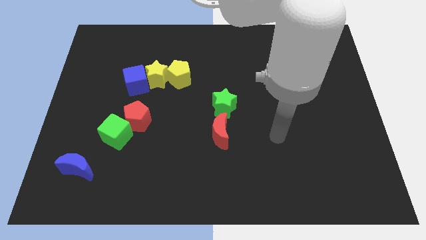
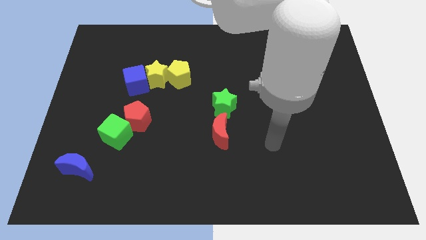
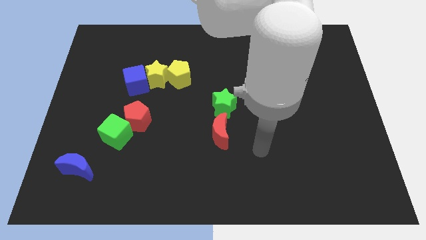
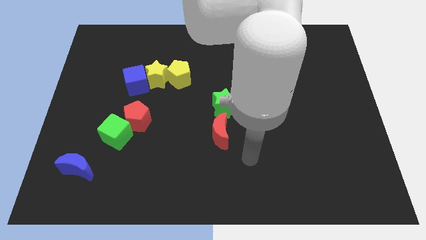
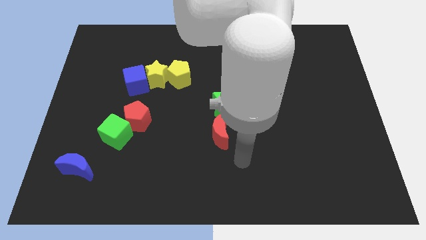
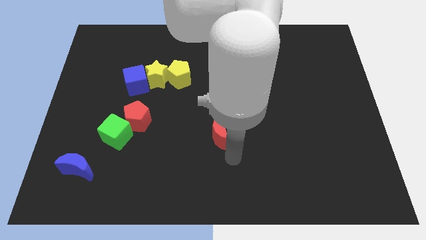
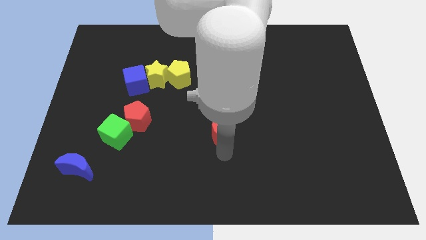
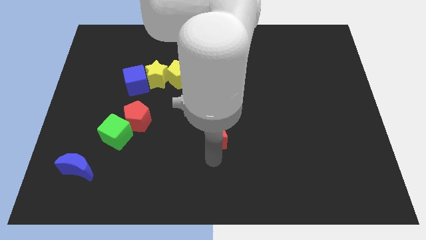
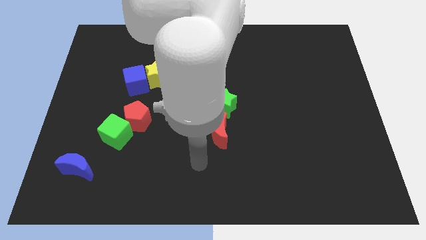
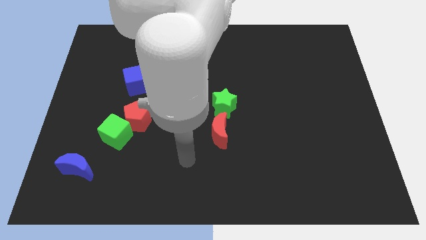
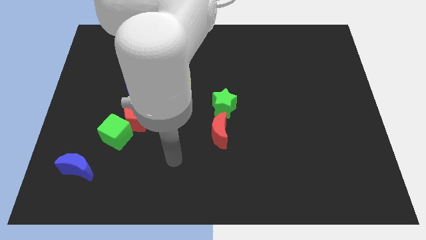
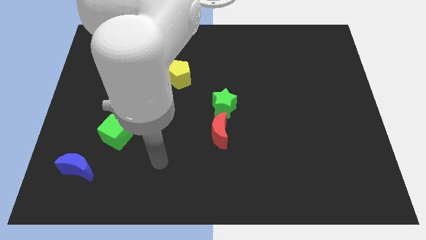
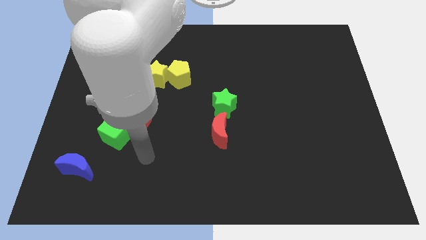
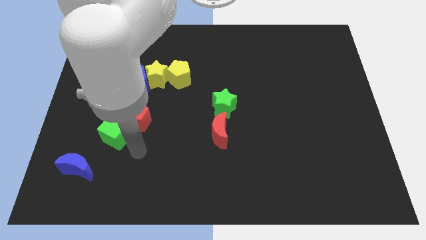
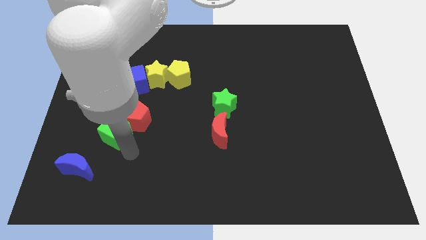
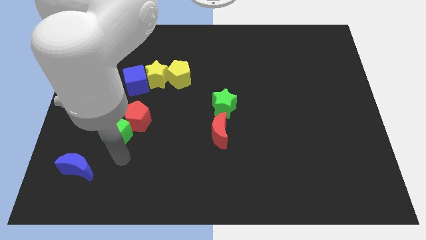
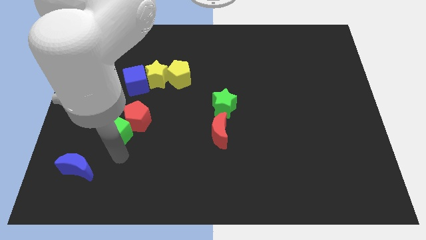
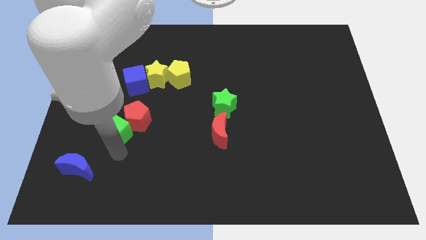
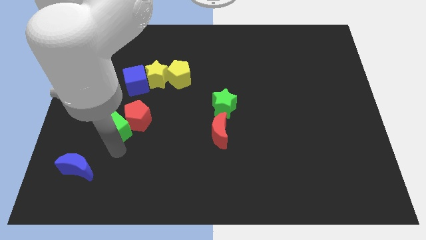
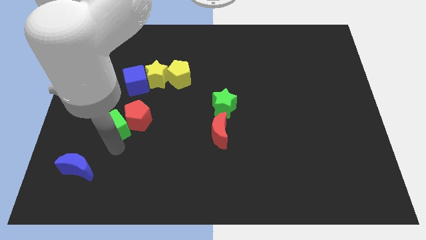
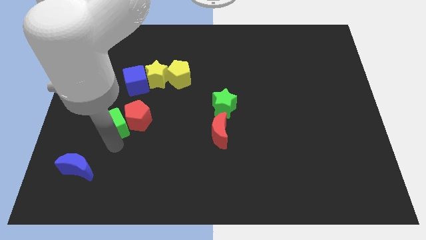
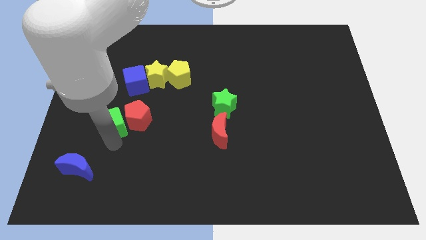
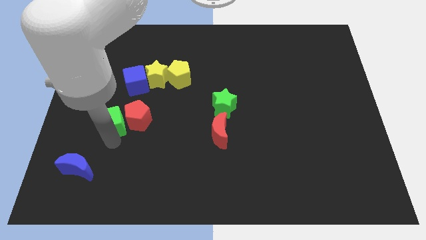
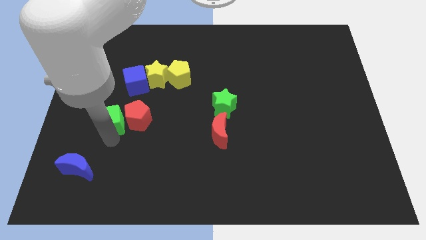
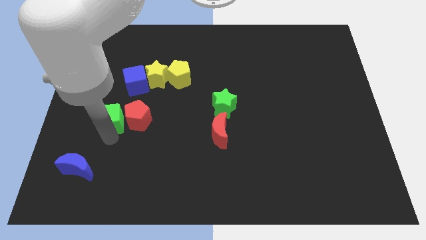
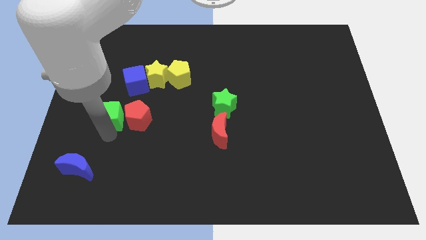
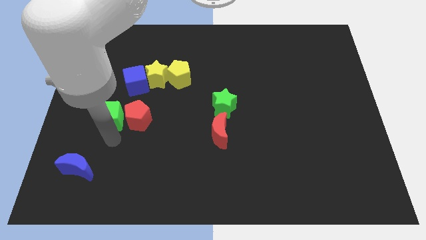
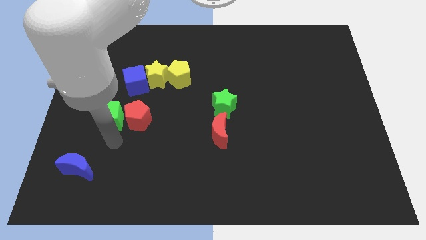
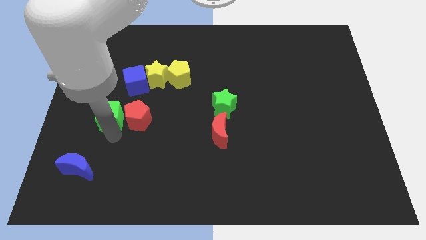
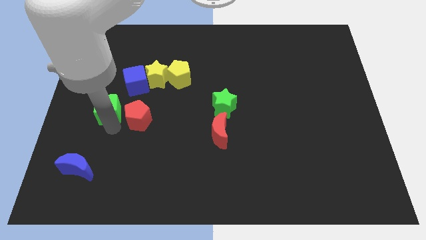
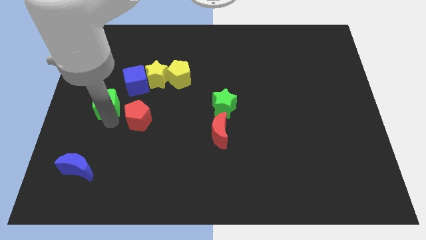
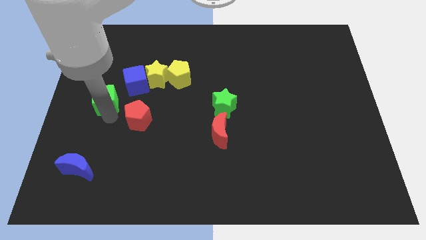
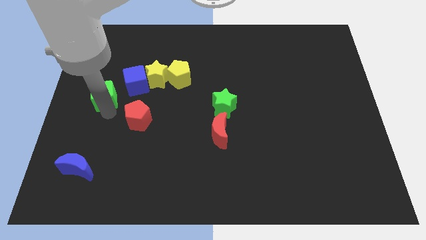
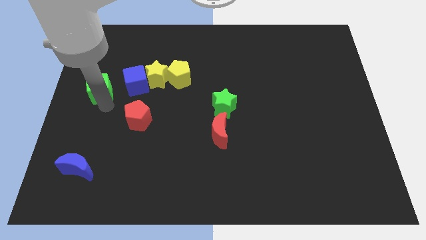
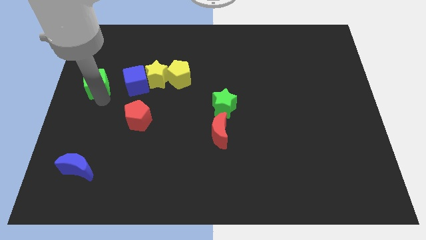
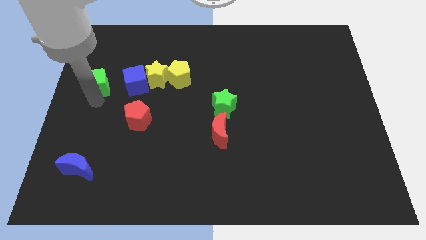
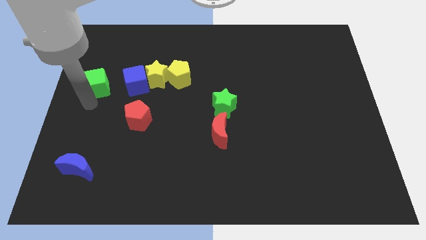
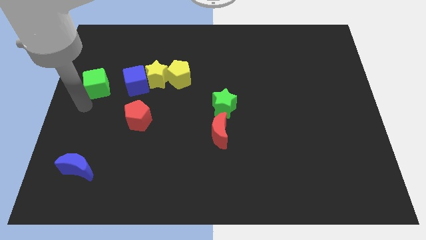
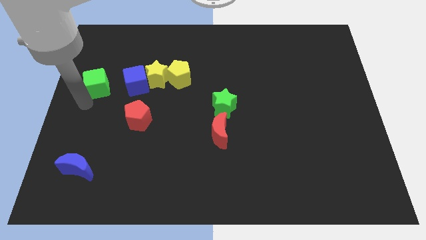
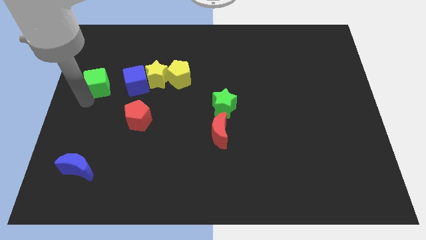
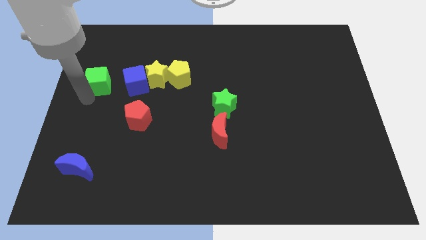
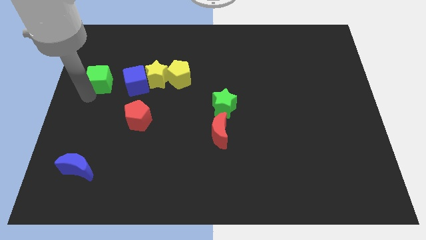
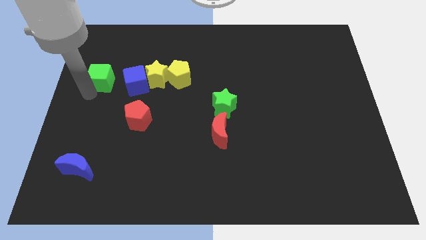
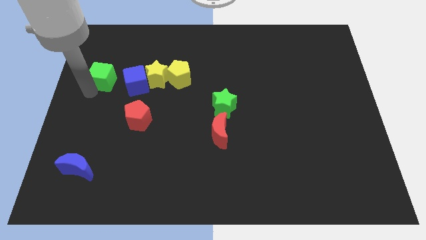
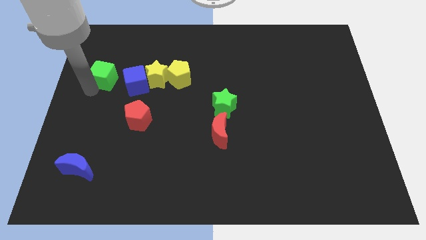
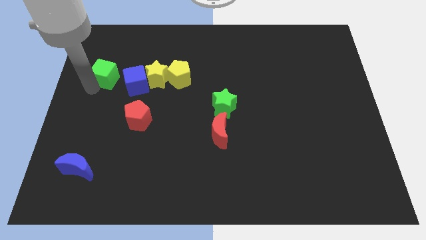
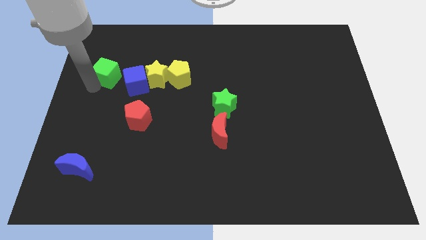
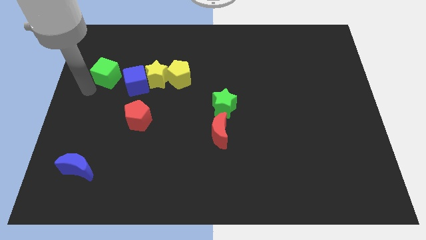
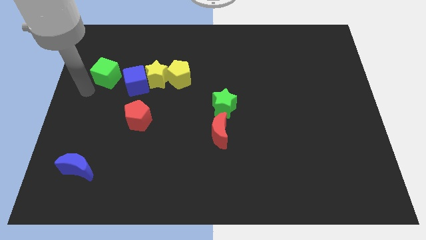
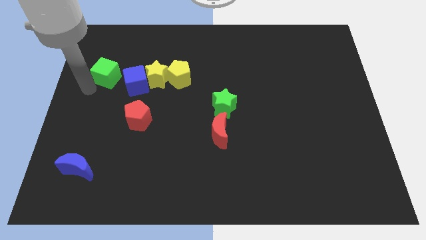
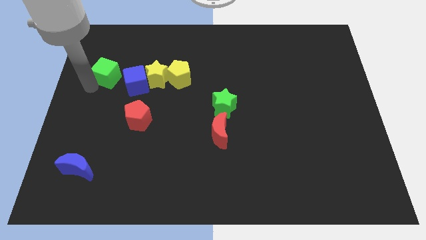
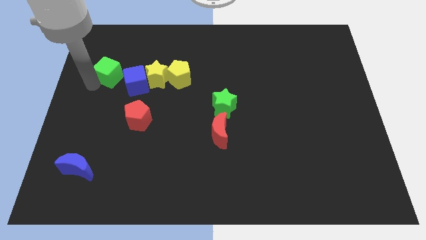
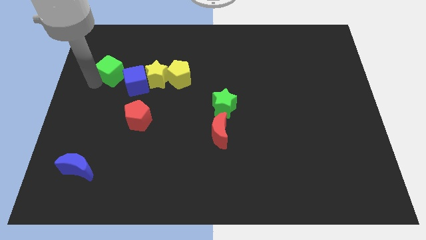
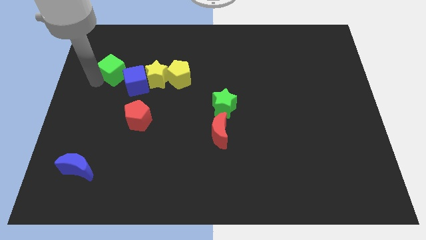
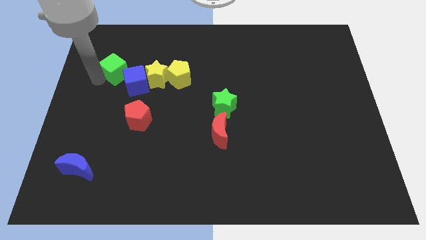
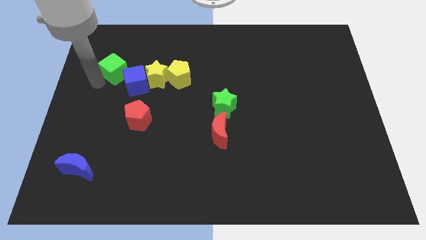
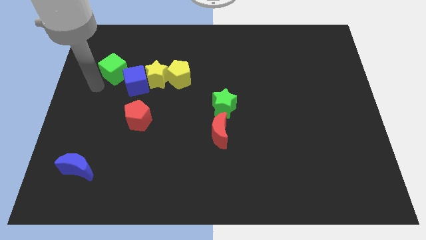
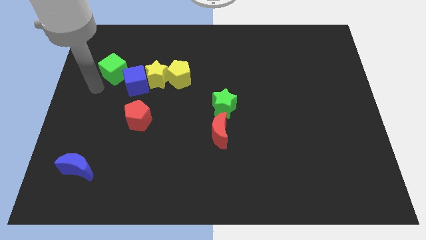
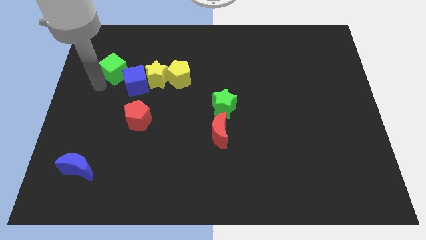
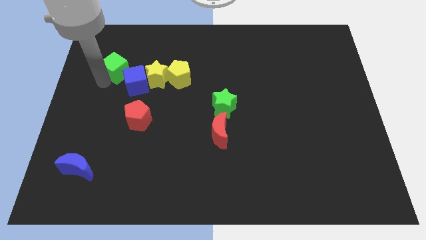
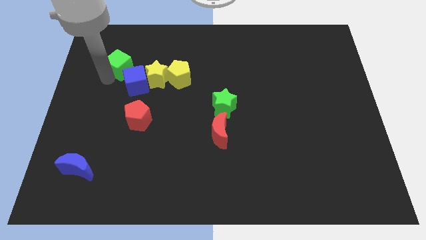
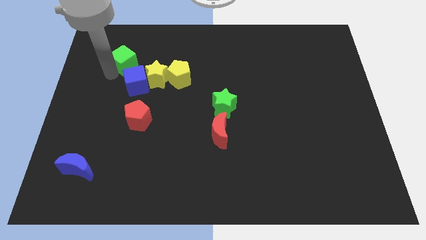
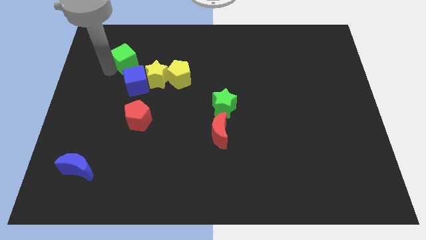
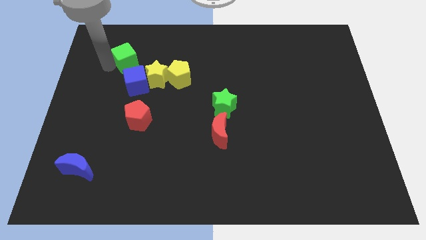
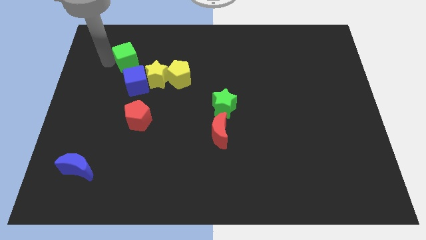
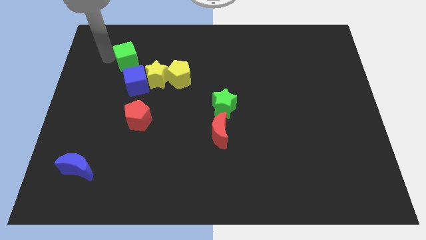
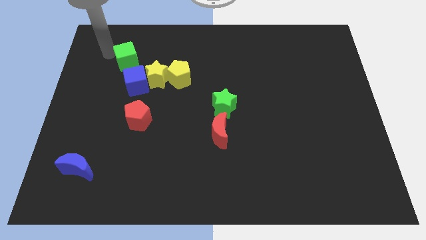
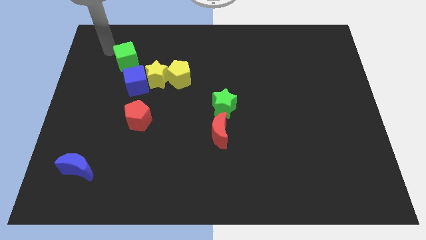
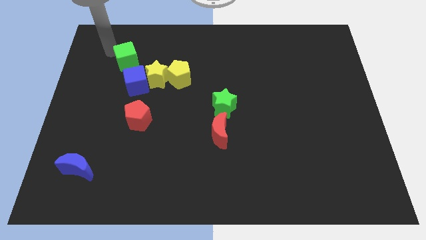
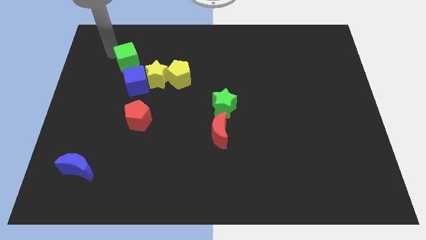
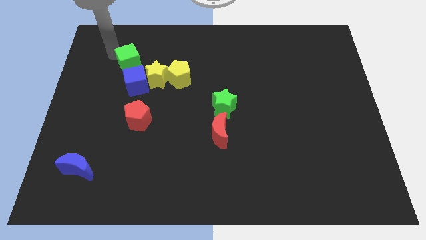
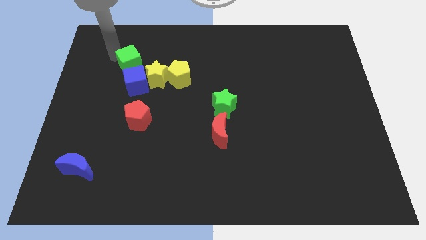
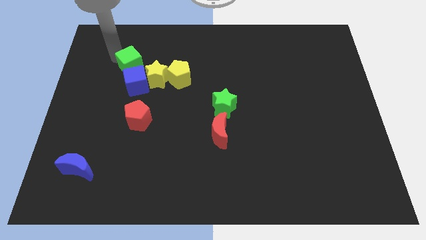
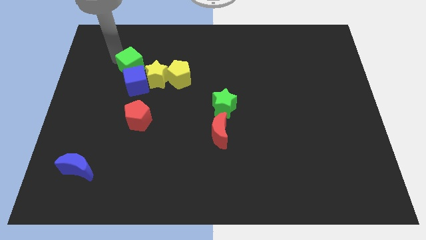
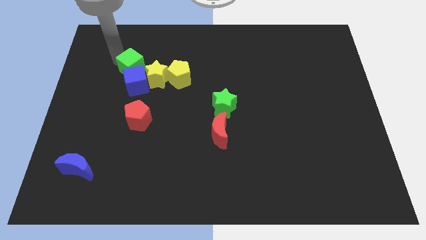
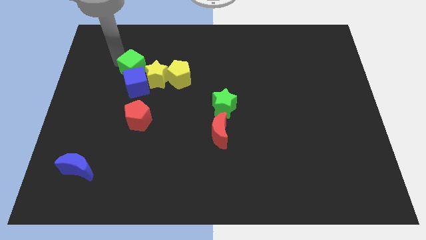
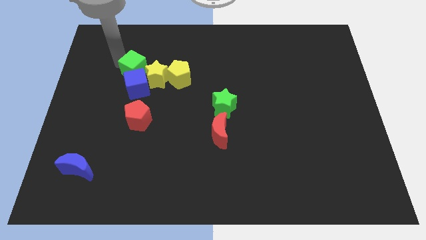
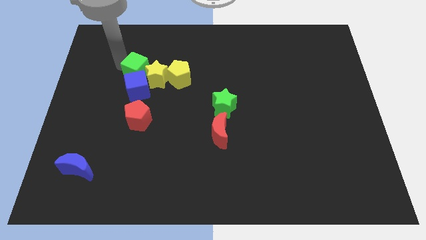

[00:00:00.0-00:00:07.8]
move the green cube to the top side of the red pentagon
